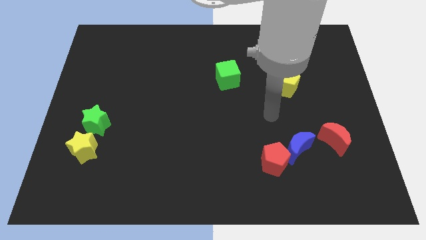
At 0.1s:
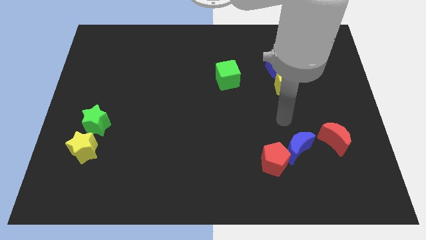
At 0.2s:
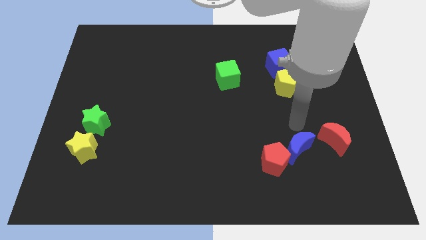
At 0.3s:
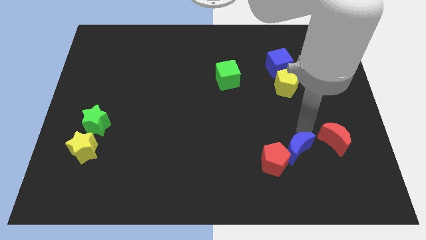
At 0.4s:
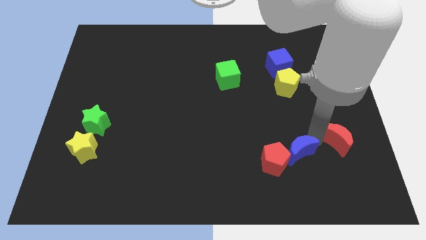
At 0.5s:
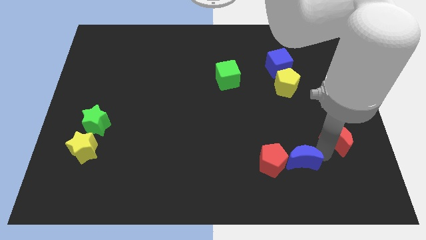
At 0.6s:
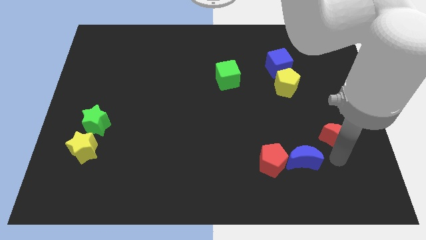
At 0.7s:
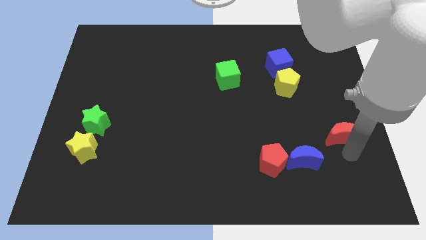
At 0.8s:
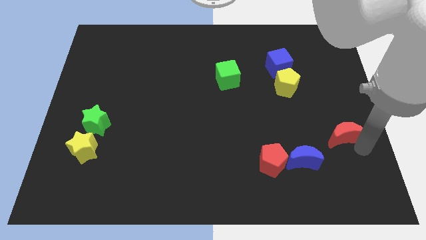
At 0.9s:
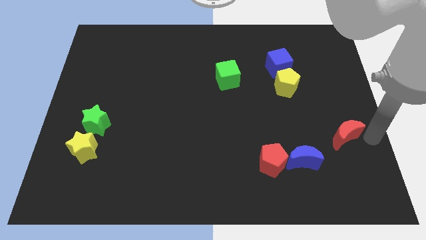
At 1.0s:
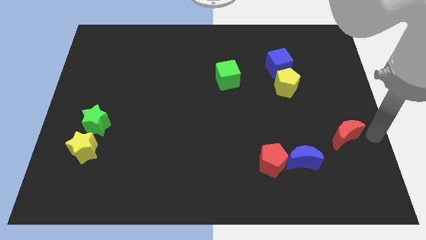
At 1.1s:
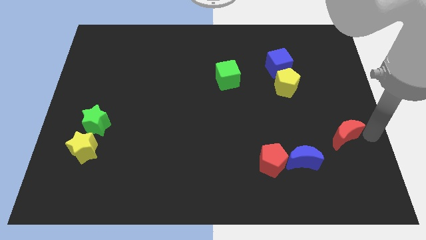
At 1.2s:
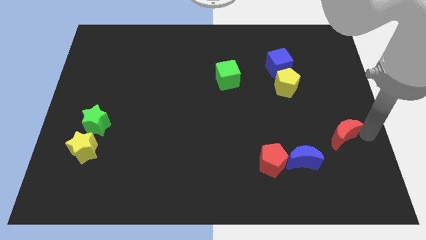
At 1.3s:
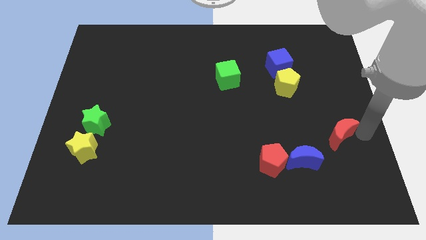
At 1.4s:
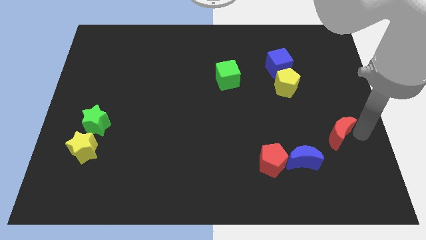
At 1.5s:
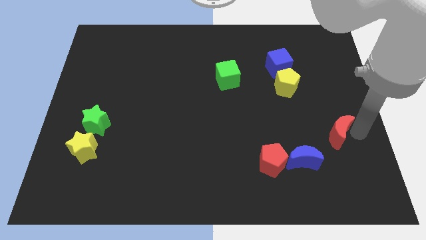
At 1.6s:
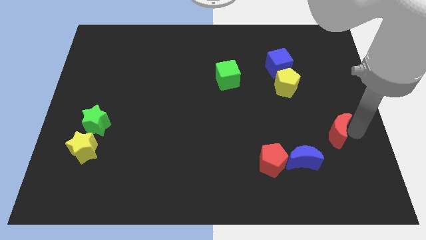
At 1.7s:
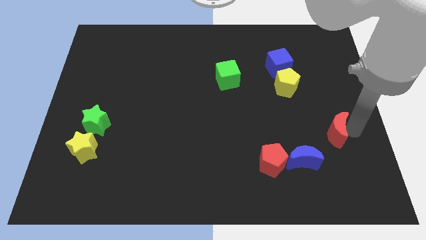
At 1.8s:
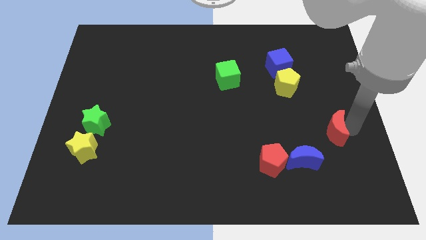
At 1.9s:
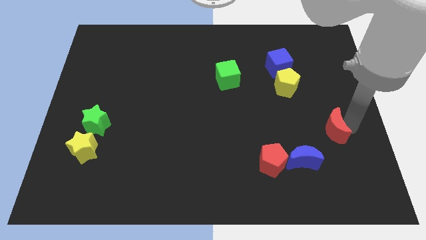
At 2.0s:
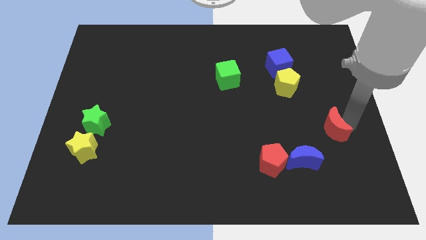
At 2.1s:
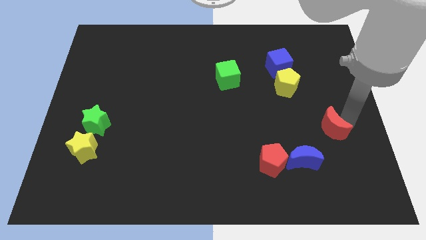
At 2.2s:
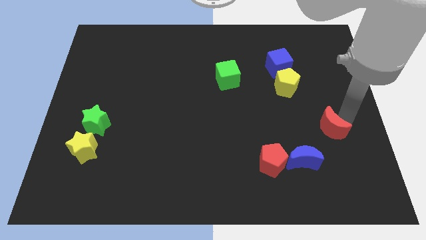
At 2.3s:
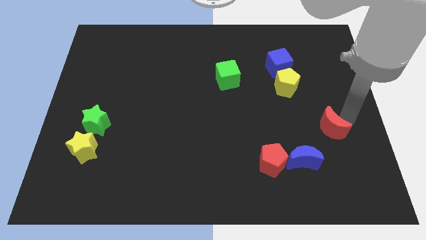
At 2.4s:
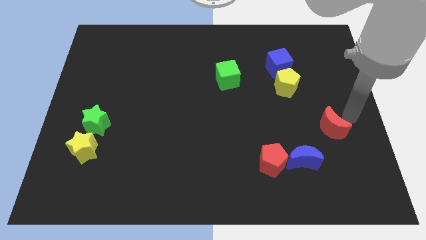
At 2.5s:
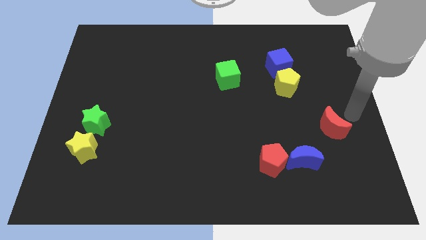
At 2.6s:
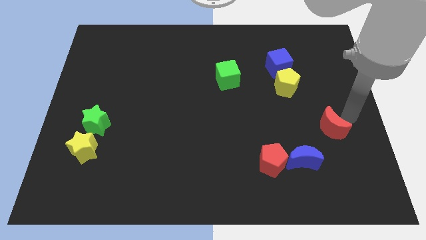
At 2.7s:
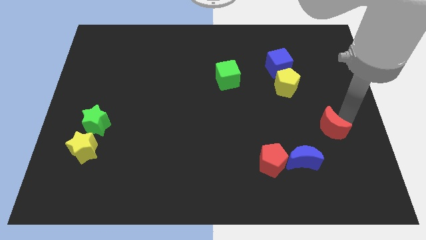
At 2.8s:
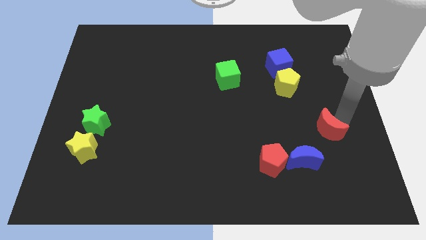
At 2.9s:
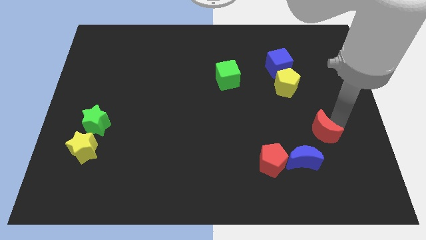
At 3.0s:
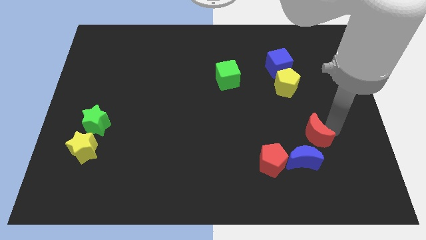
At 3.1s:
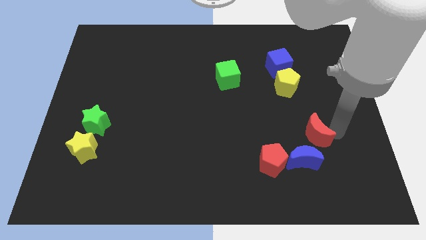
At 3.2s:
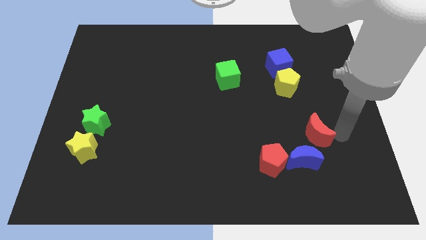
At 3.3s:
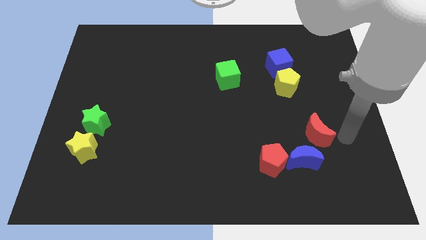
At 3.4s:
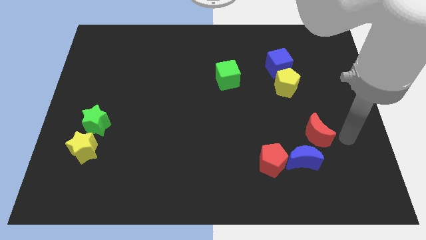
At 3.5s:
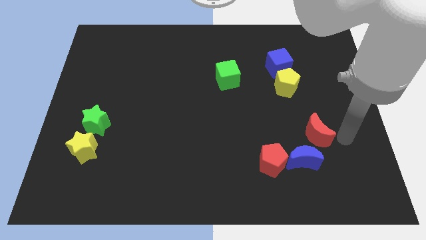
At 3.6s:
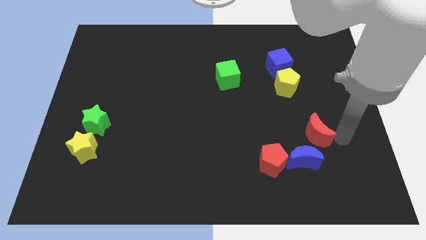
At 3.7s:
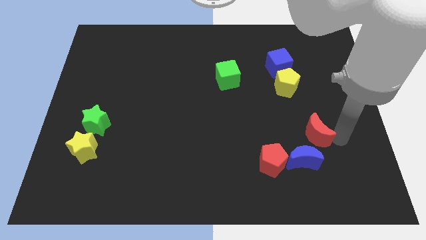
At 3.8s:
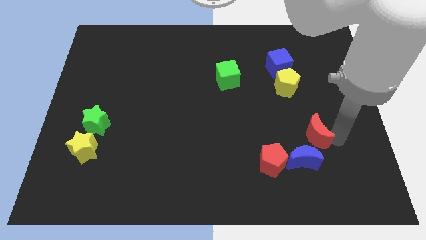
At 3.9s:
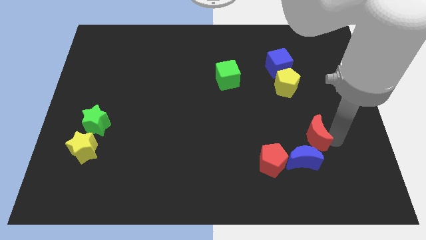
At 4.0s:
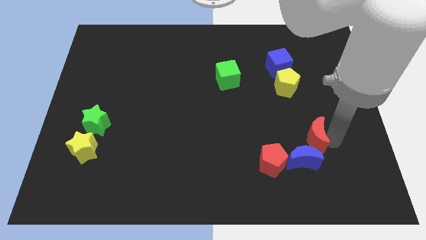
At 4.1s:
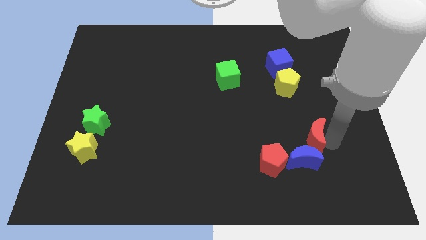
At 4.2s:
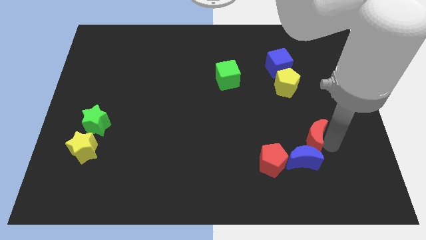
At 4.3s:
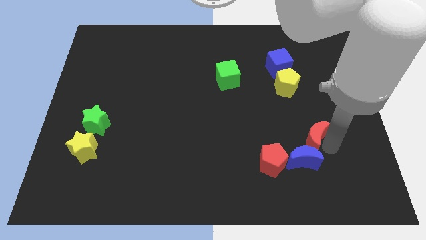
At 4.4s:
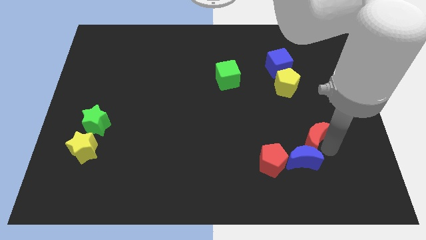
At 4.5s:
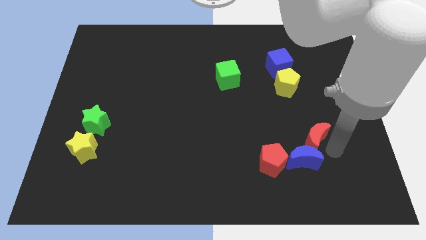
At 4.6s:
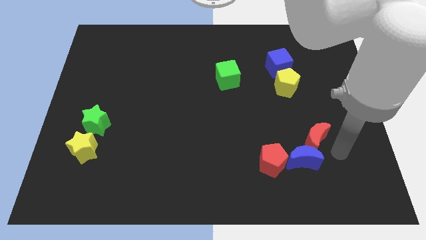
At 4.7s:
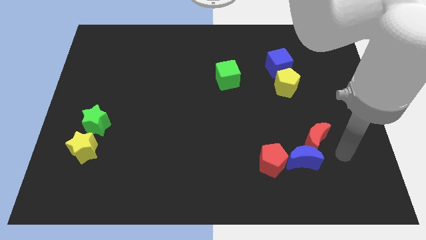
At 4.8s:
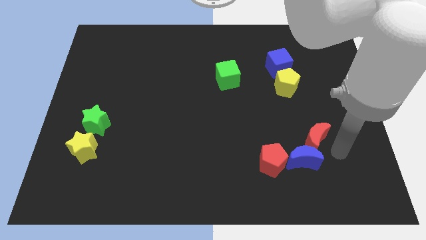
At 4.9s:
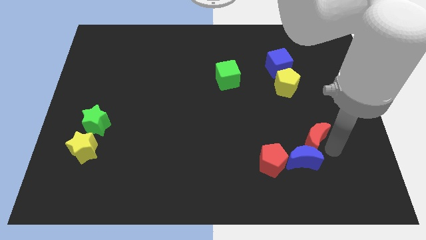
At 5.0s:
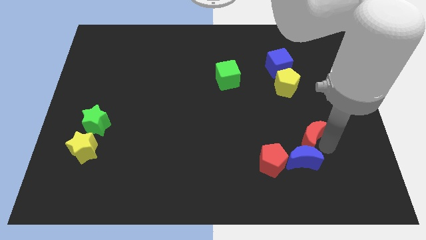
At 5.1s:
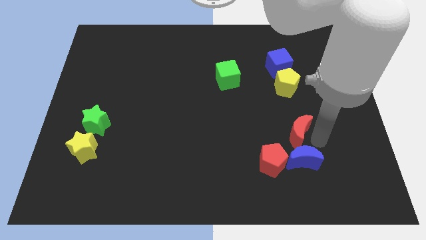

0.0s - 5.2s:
slightly move the red moon left

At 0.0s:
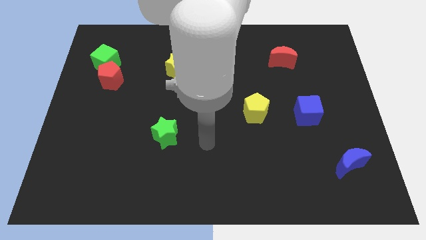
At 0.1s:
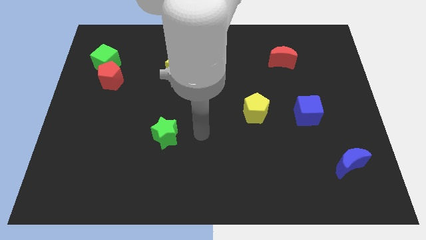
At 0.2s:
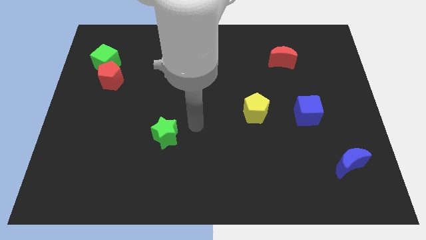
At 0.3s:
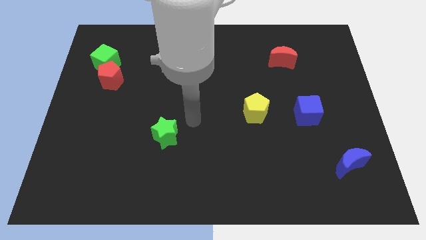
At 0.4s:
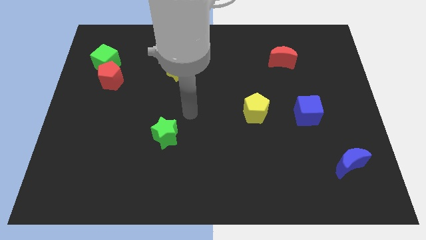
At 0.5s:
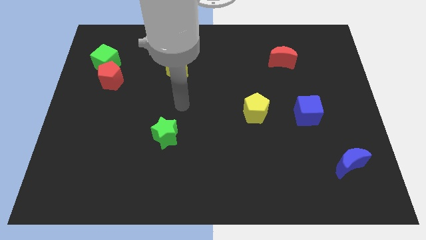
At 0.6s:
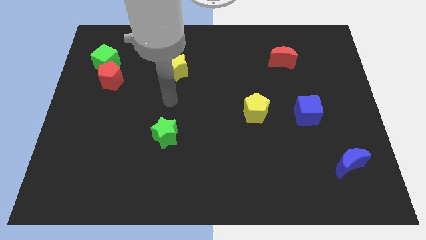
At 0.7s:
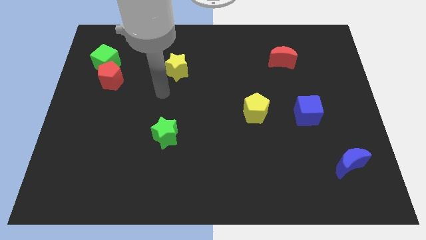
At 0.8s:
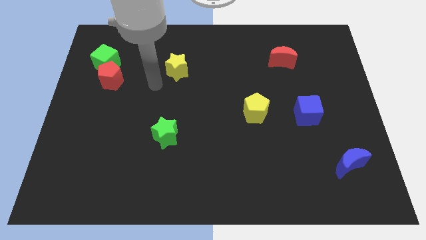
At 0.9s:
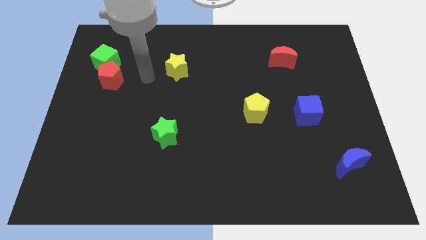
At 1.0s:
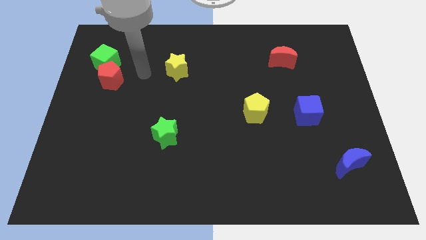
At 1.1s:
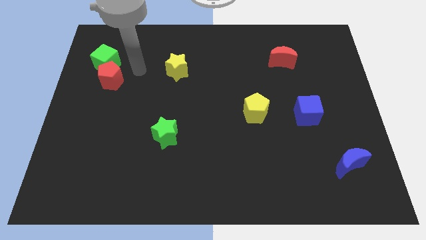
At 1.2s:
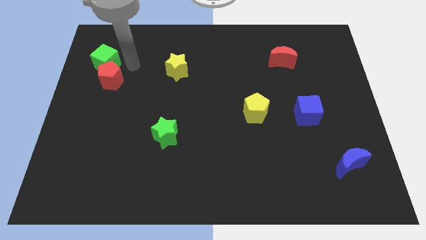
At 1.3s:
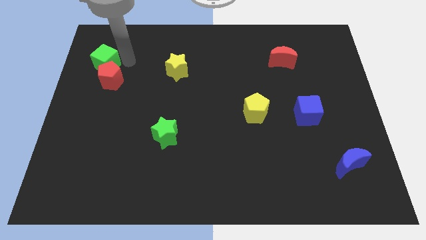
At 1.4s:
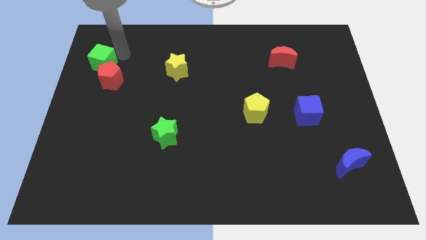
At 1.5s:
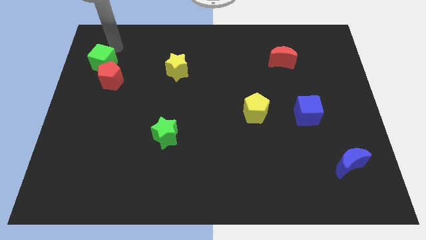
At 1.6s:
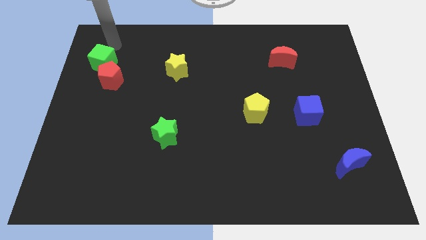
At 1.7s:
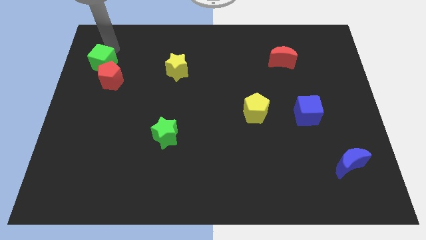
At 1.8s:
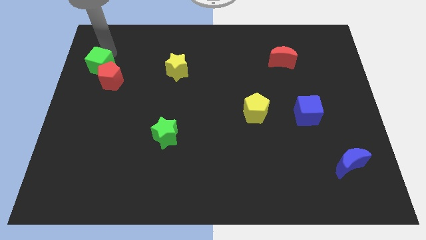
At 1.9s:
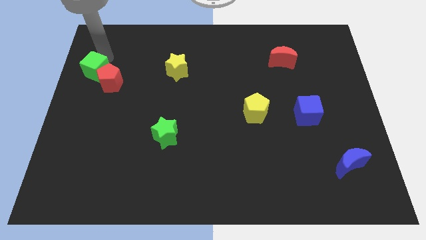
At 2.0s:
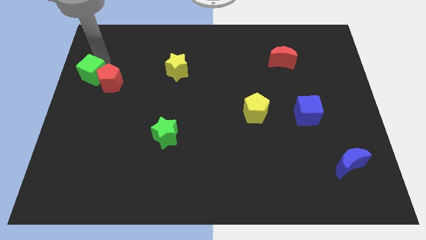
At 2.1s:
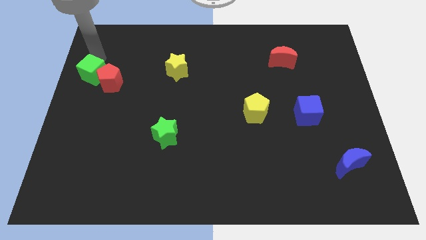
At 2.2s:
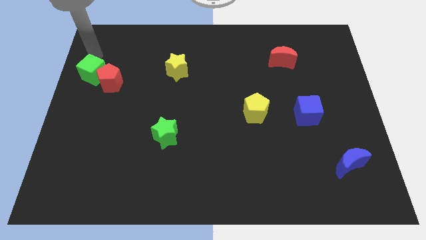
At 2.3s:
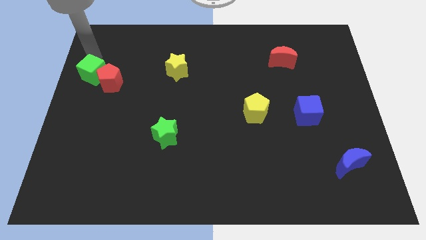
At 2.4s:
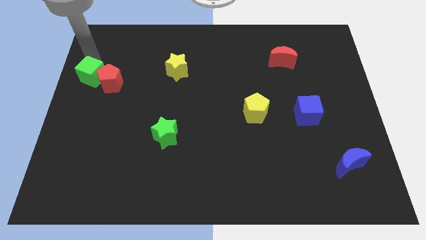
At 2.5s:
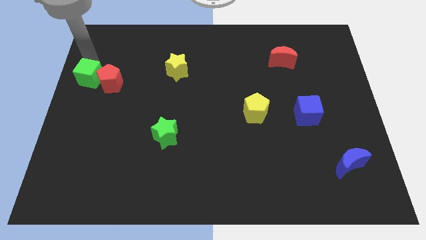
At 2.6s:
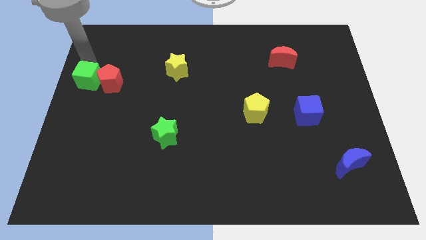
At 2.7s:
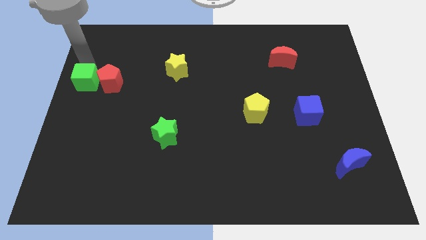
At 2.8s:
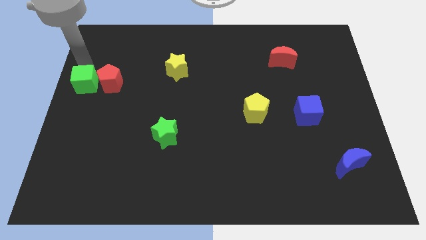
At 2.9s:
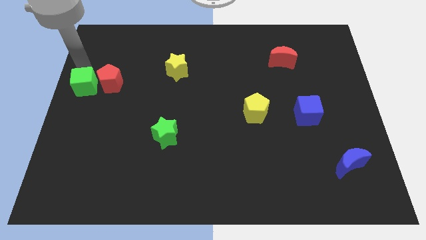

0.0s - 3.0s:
push the green cube downwards somewhat

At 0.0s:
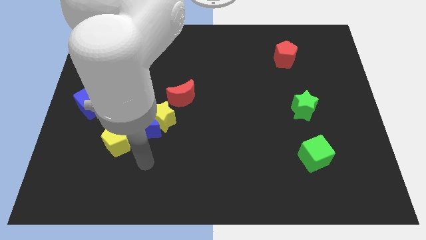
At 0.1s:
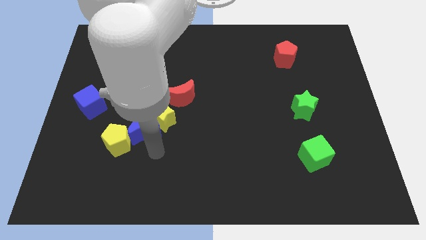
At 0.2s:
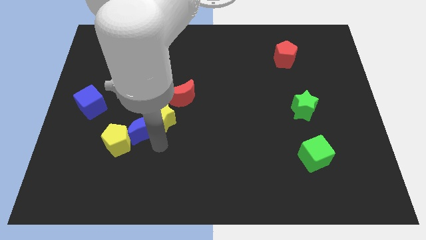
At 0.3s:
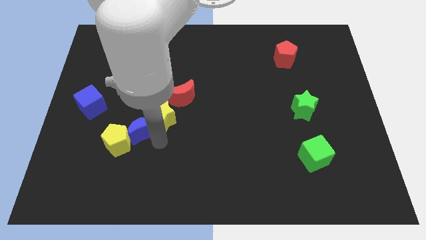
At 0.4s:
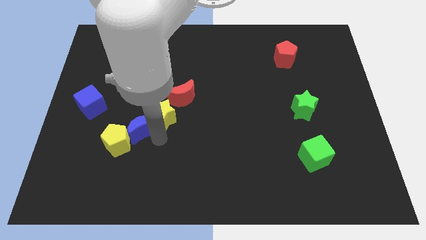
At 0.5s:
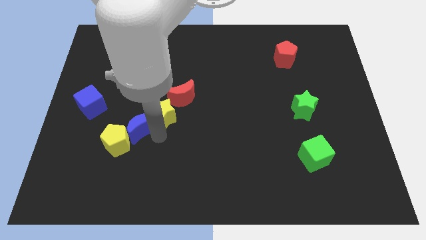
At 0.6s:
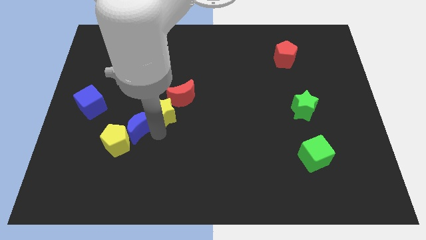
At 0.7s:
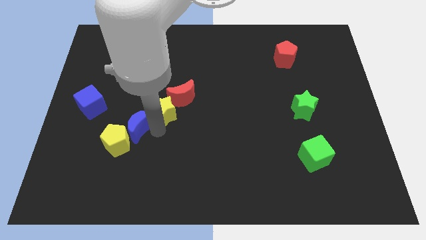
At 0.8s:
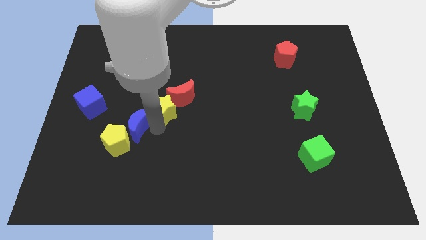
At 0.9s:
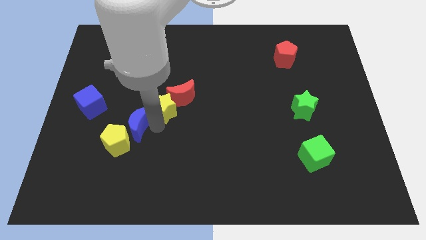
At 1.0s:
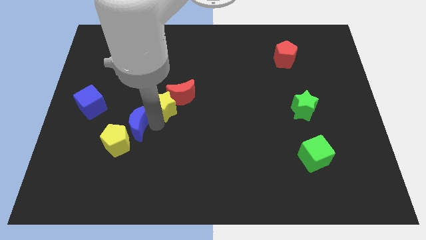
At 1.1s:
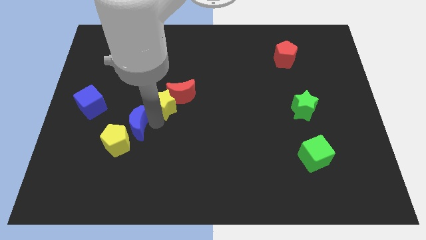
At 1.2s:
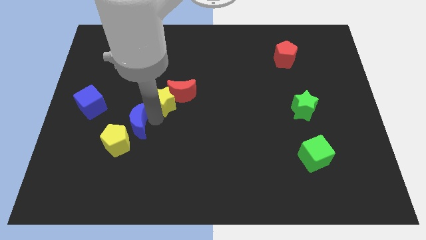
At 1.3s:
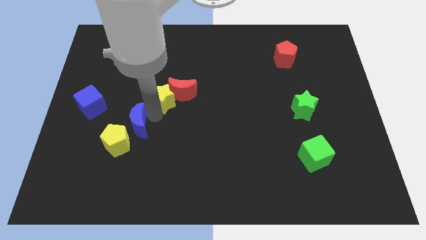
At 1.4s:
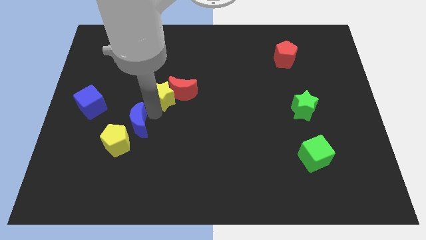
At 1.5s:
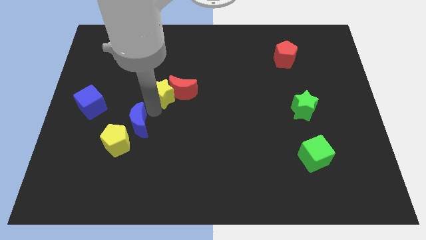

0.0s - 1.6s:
push the yellow star up a little bit
